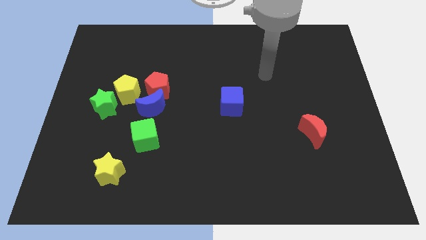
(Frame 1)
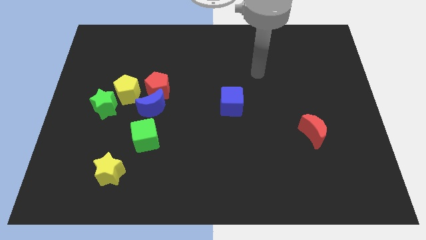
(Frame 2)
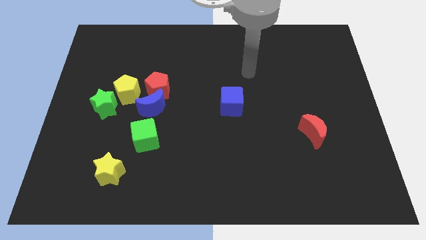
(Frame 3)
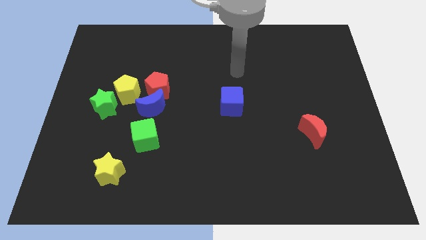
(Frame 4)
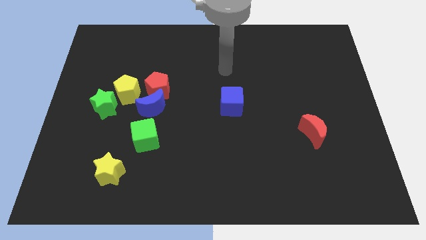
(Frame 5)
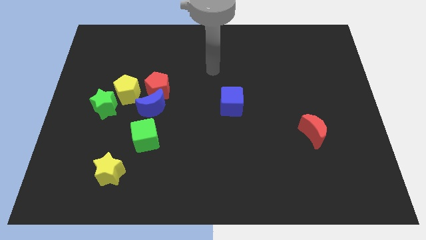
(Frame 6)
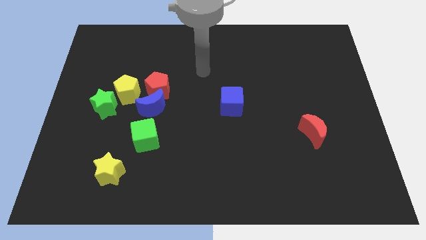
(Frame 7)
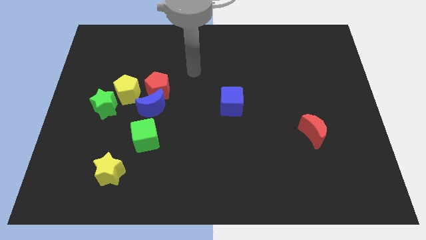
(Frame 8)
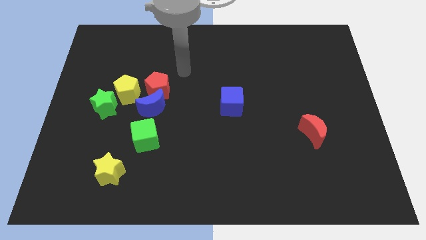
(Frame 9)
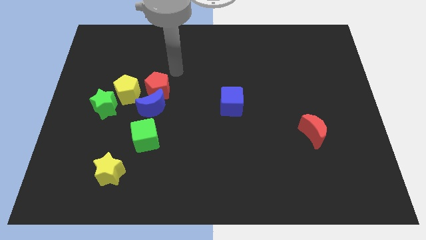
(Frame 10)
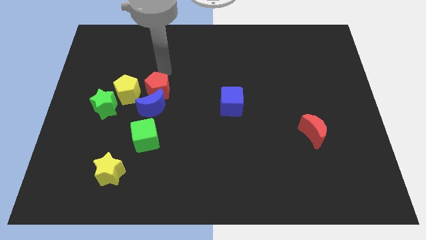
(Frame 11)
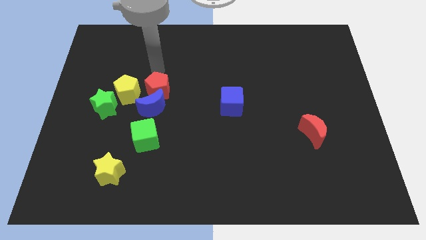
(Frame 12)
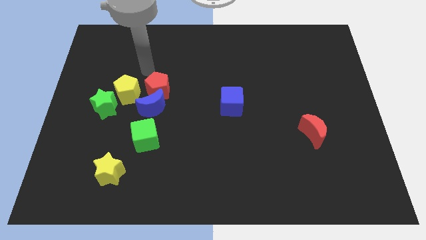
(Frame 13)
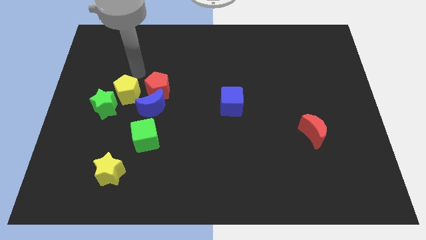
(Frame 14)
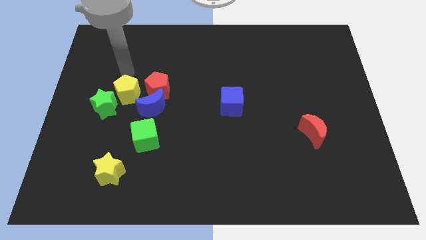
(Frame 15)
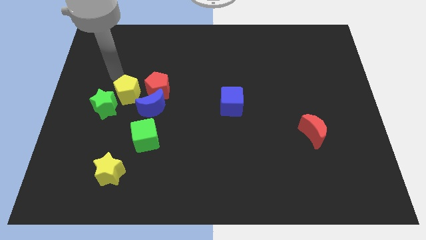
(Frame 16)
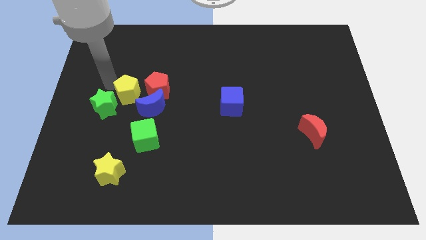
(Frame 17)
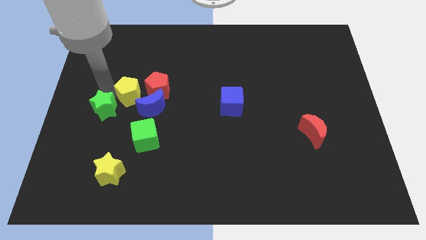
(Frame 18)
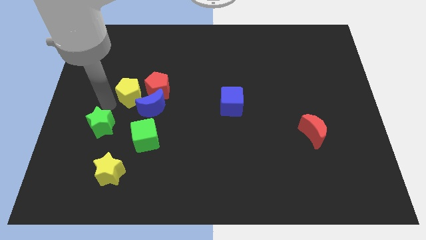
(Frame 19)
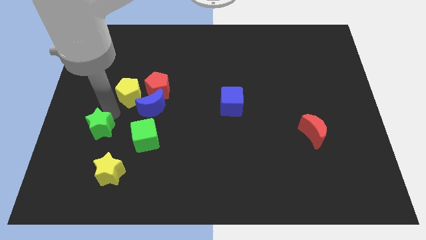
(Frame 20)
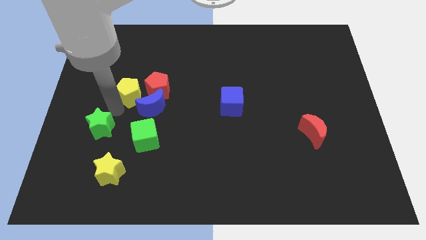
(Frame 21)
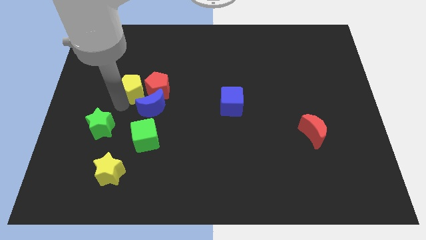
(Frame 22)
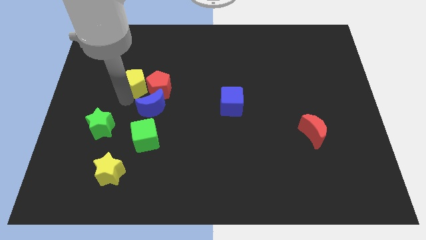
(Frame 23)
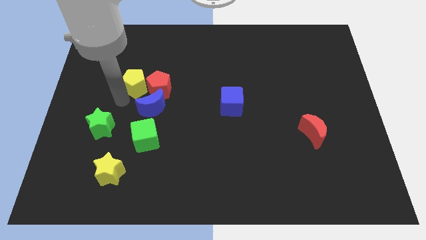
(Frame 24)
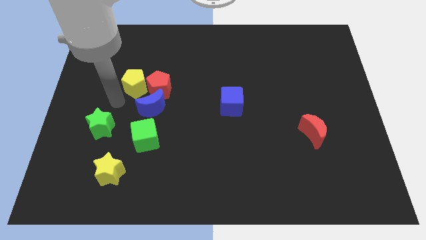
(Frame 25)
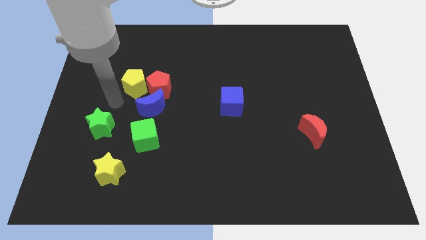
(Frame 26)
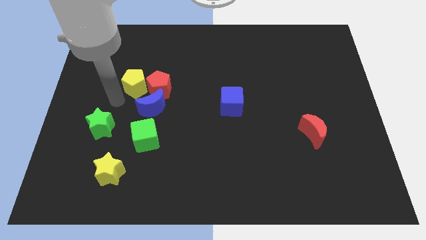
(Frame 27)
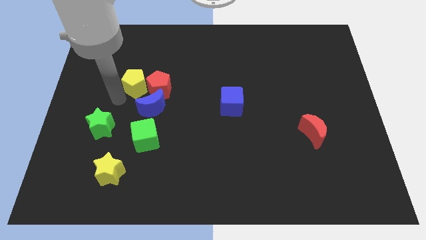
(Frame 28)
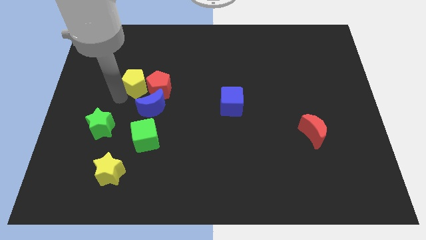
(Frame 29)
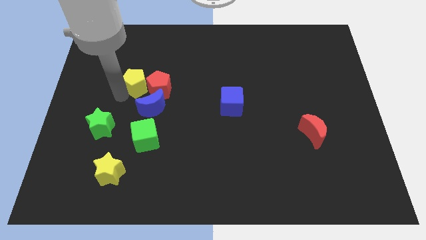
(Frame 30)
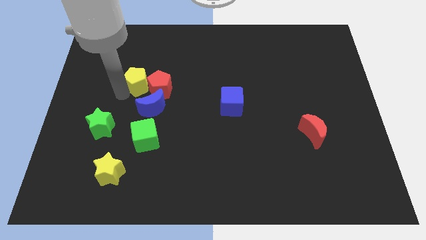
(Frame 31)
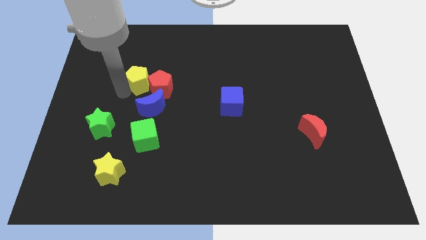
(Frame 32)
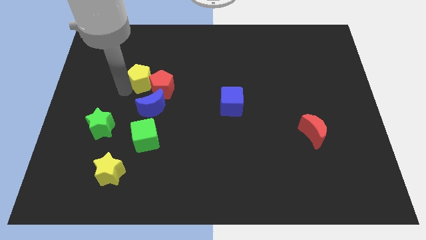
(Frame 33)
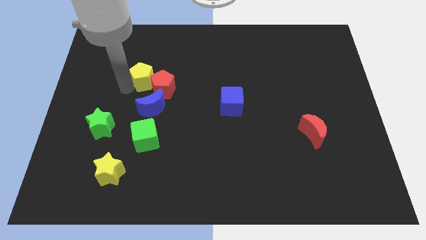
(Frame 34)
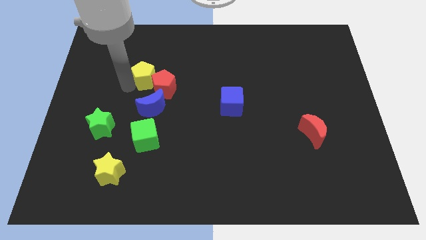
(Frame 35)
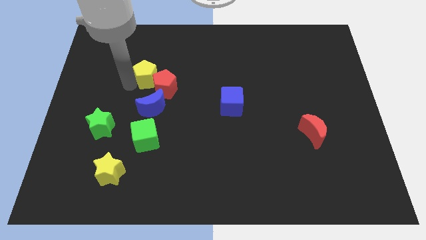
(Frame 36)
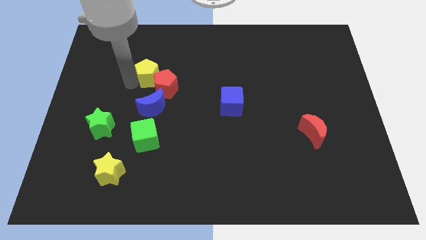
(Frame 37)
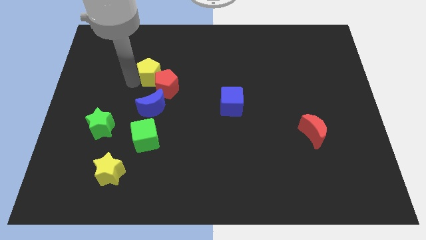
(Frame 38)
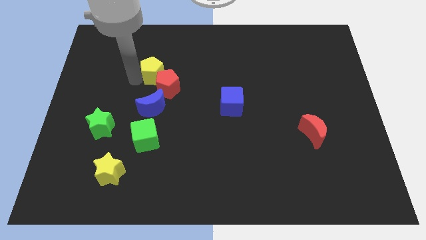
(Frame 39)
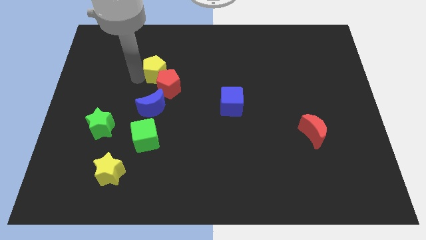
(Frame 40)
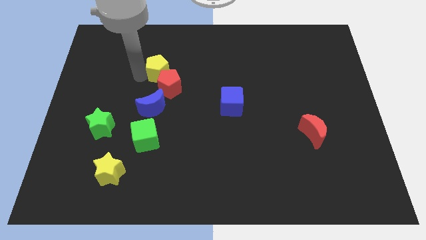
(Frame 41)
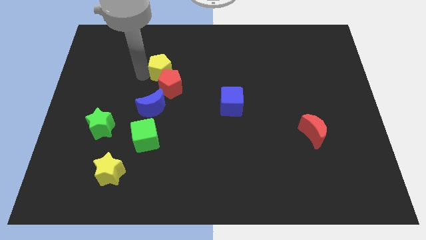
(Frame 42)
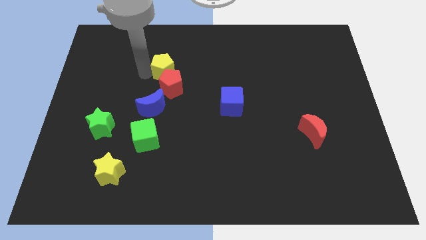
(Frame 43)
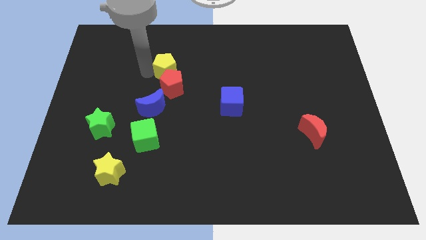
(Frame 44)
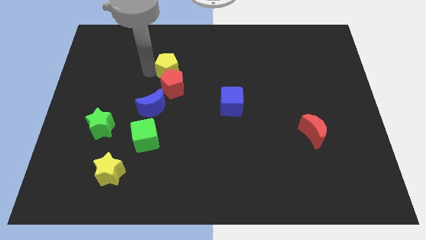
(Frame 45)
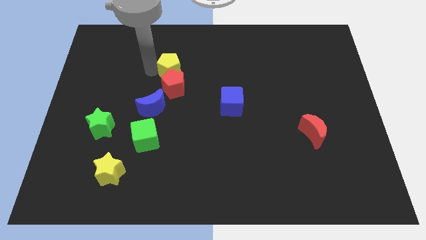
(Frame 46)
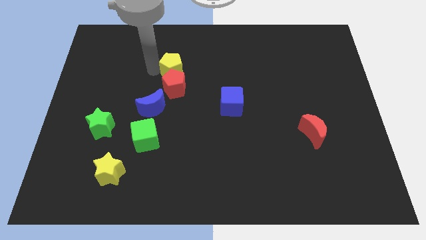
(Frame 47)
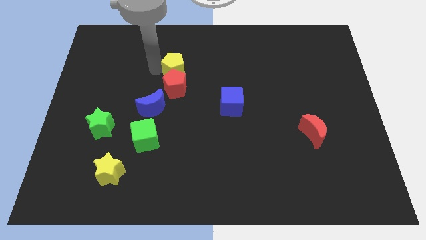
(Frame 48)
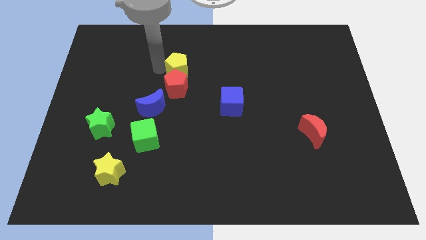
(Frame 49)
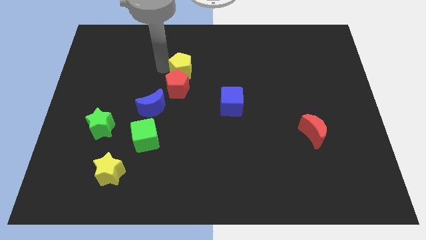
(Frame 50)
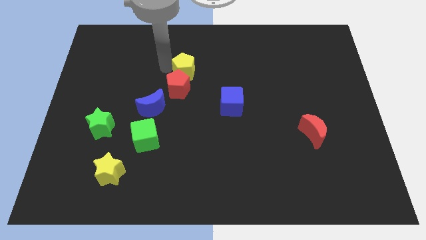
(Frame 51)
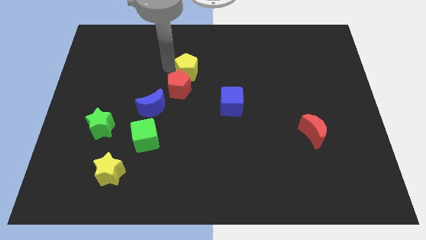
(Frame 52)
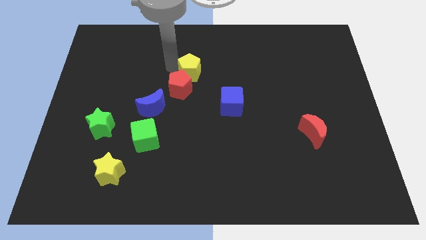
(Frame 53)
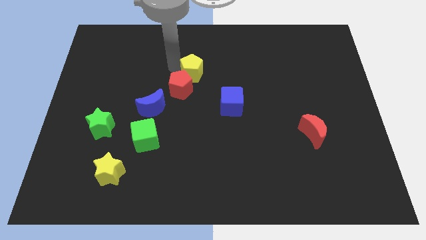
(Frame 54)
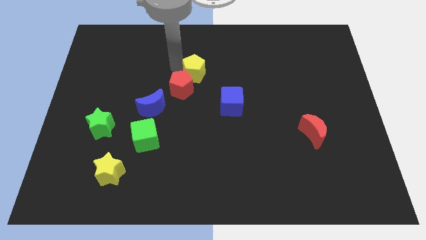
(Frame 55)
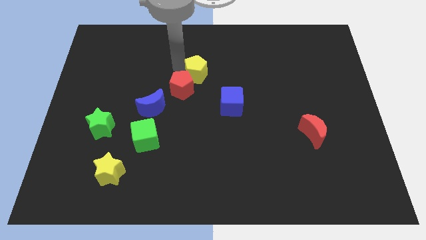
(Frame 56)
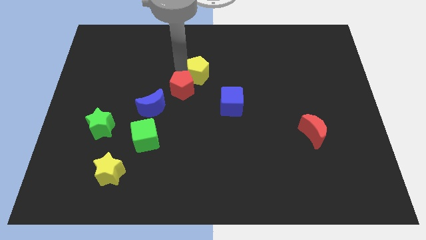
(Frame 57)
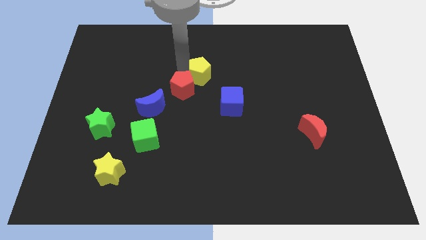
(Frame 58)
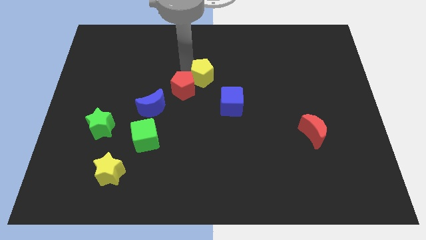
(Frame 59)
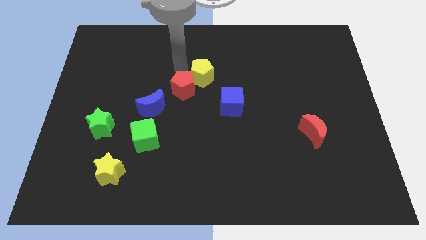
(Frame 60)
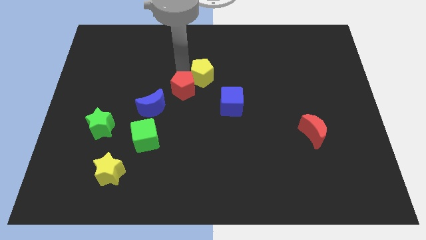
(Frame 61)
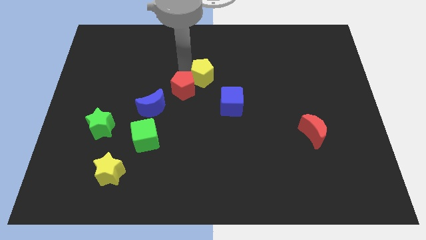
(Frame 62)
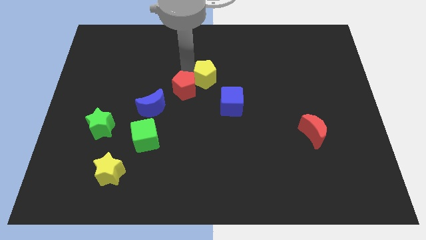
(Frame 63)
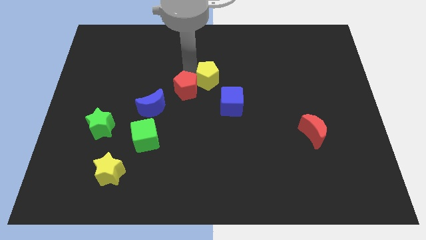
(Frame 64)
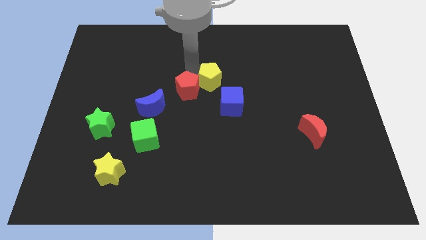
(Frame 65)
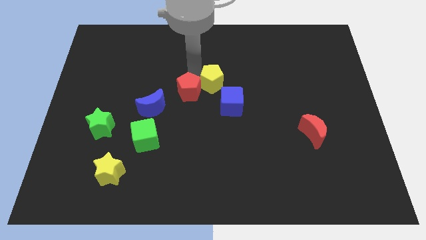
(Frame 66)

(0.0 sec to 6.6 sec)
slide the yellow pentagon to the right

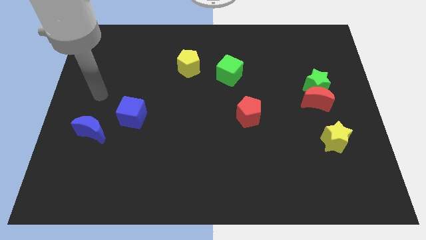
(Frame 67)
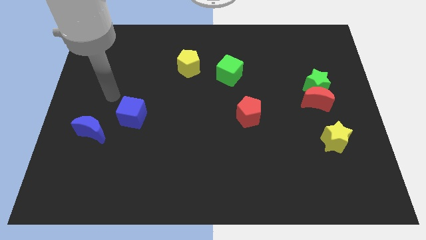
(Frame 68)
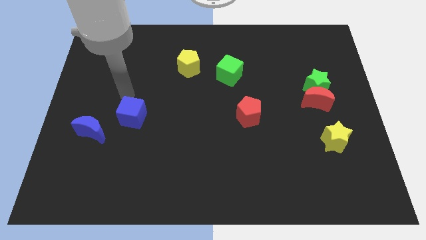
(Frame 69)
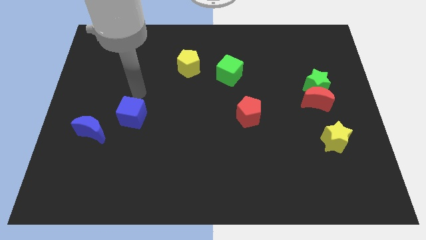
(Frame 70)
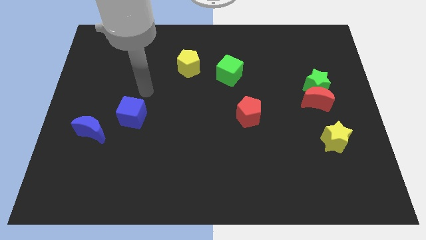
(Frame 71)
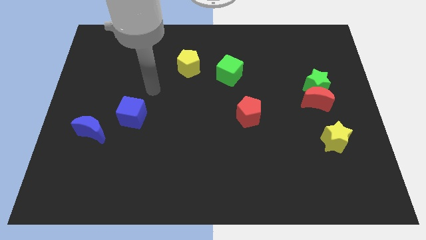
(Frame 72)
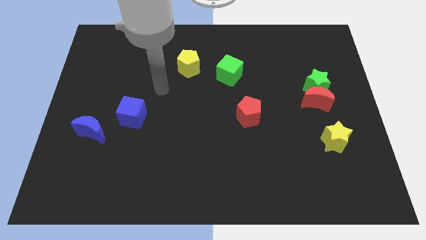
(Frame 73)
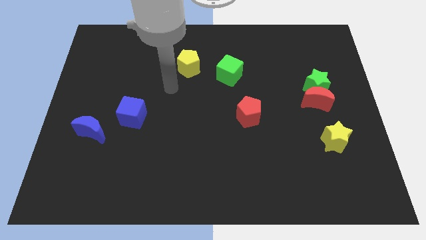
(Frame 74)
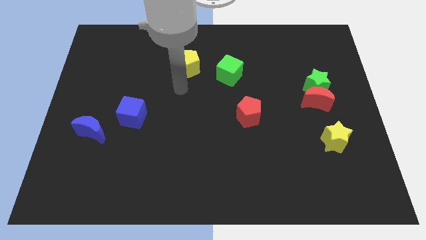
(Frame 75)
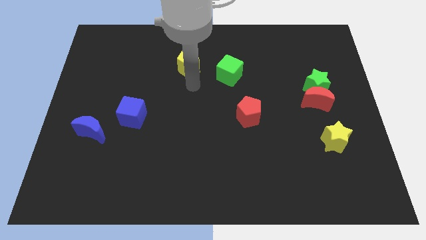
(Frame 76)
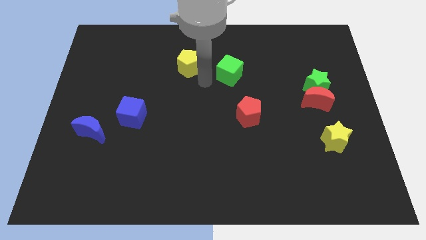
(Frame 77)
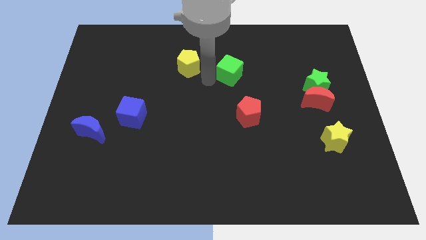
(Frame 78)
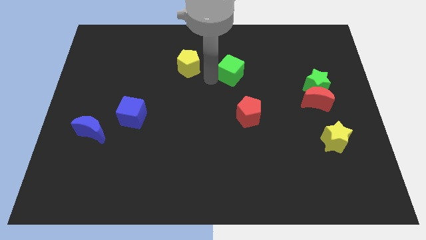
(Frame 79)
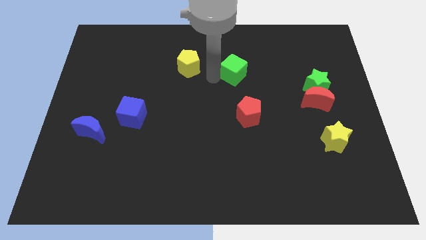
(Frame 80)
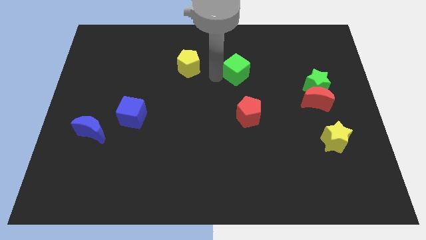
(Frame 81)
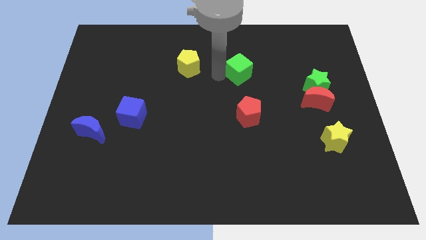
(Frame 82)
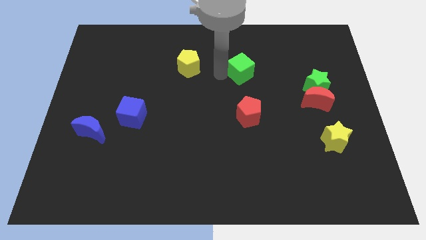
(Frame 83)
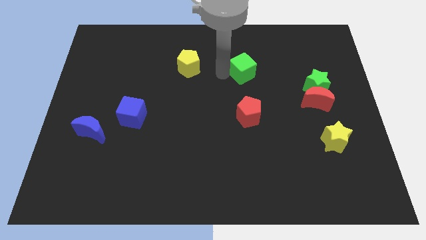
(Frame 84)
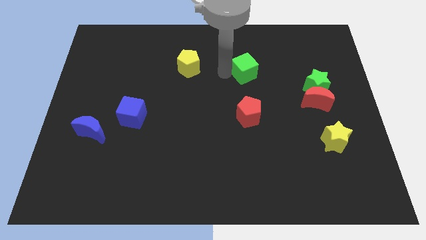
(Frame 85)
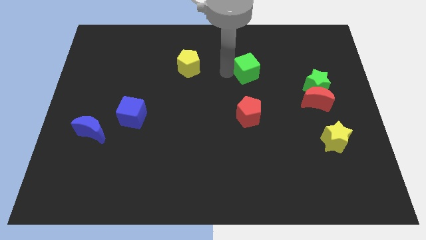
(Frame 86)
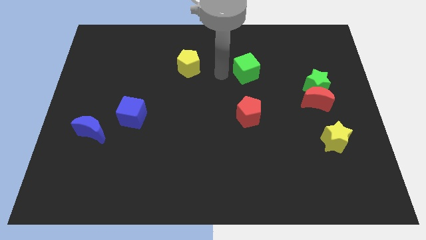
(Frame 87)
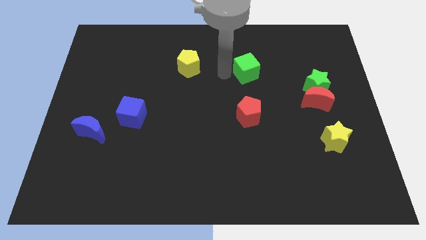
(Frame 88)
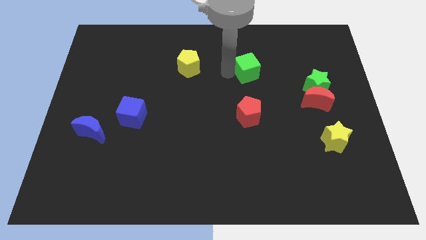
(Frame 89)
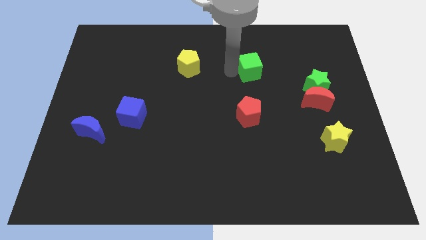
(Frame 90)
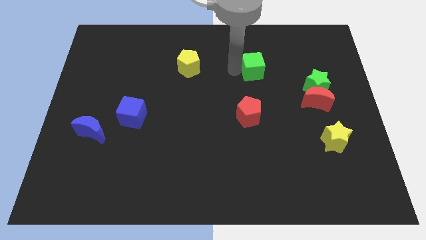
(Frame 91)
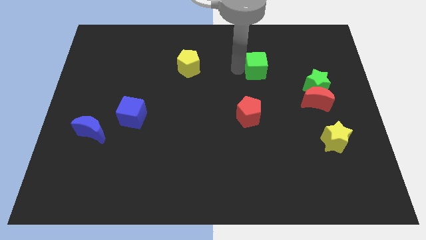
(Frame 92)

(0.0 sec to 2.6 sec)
slide the green cube to the right somewhat
